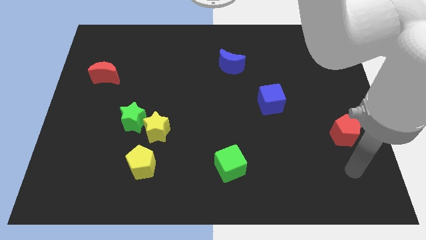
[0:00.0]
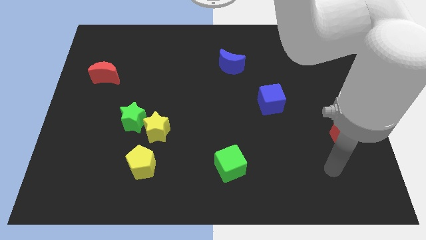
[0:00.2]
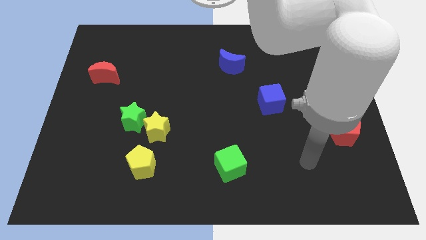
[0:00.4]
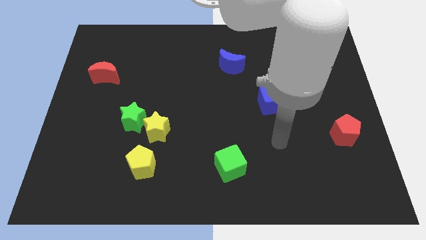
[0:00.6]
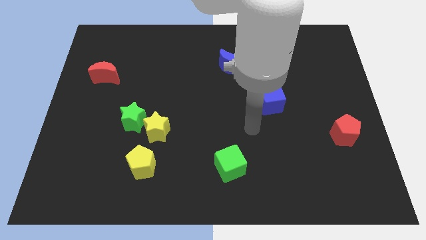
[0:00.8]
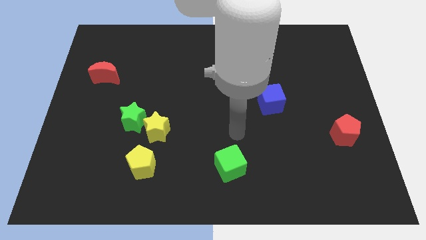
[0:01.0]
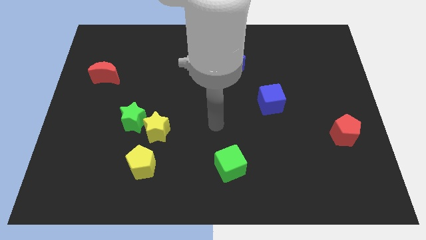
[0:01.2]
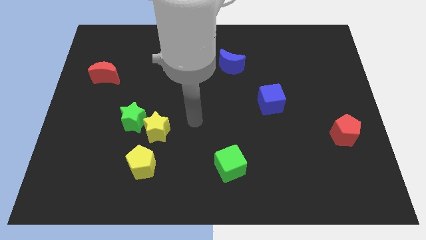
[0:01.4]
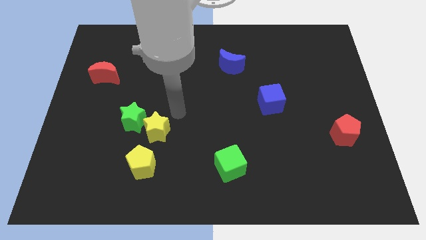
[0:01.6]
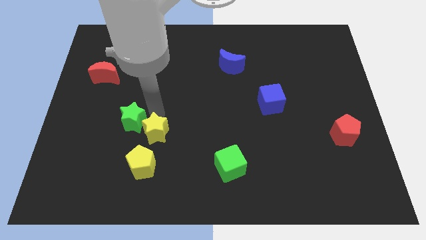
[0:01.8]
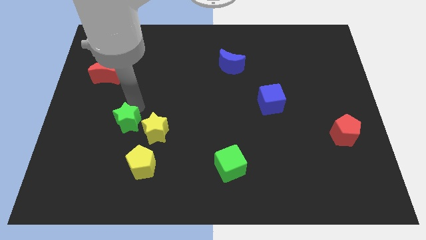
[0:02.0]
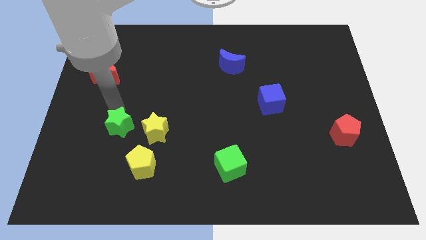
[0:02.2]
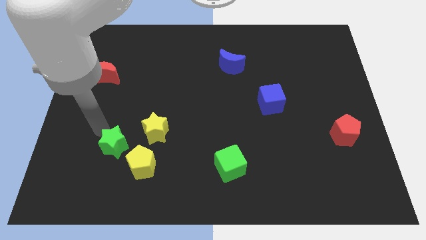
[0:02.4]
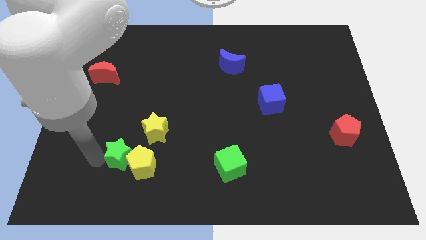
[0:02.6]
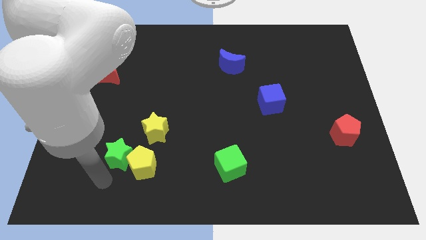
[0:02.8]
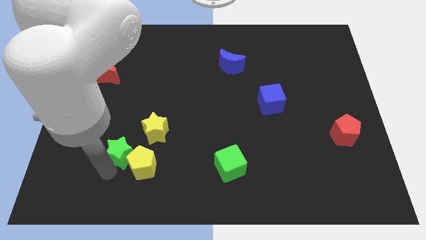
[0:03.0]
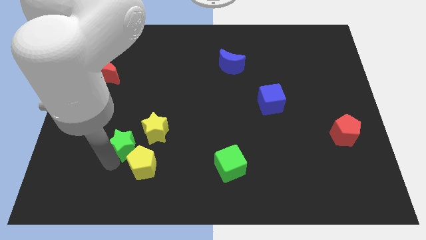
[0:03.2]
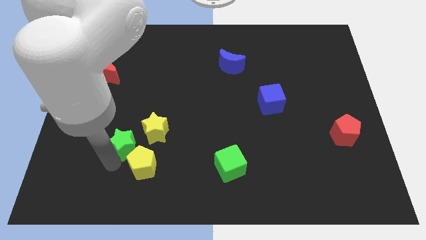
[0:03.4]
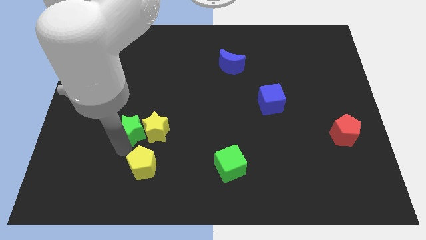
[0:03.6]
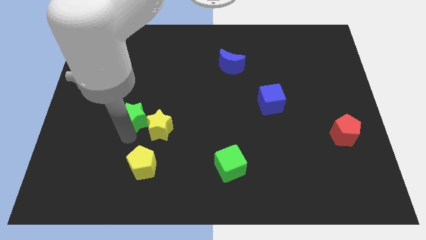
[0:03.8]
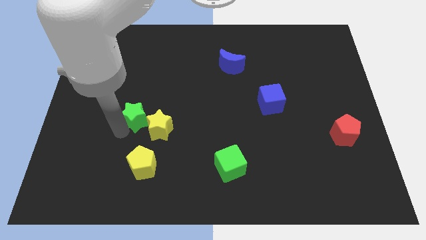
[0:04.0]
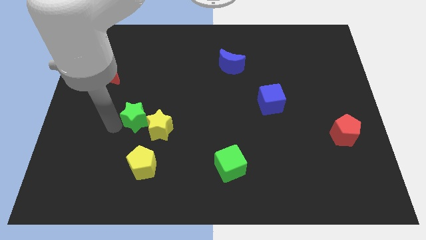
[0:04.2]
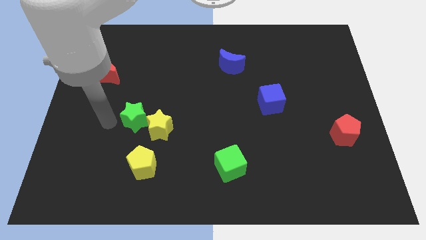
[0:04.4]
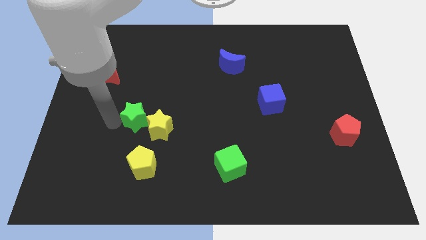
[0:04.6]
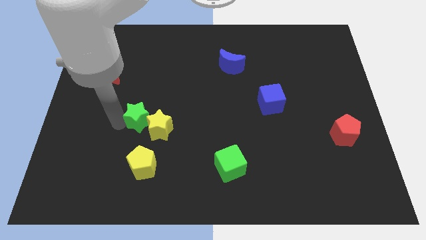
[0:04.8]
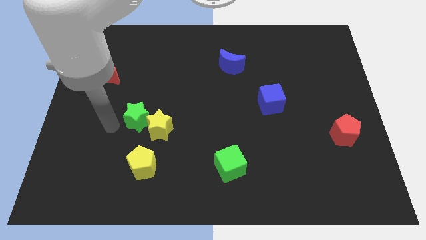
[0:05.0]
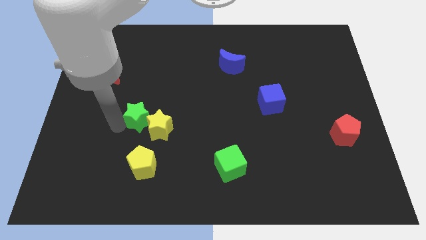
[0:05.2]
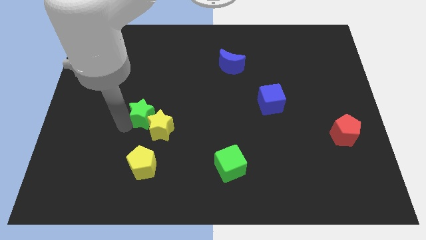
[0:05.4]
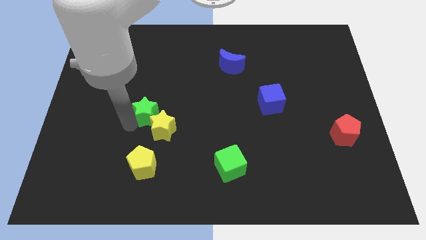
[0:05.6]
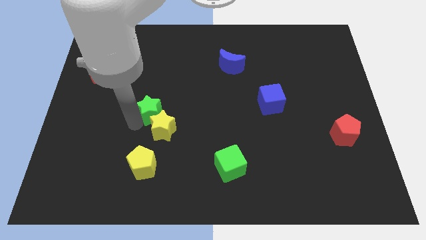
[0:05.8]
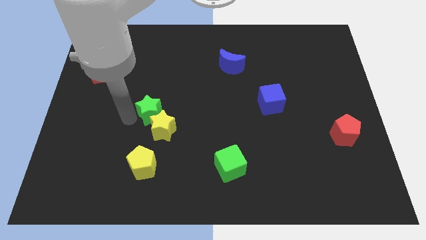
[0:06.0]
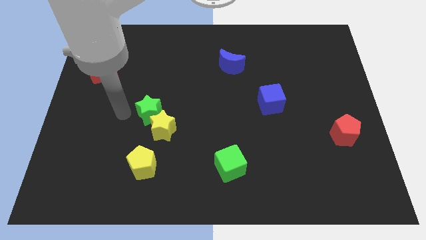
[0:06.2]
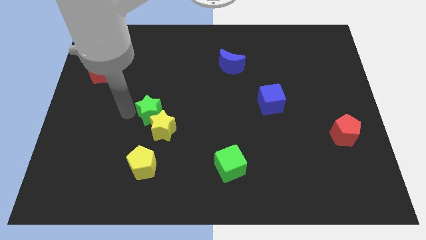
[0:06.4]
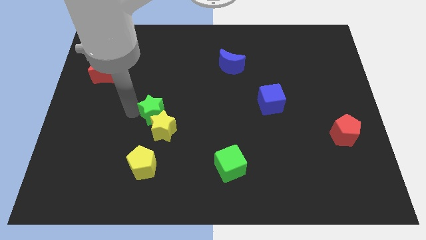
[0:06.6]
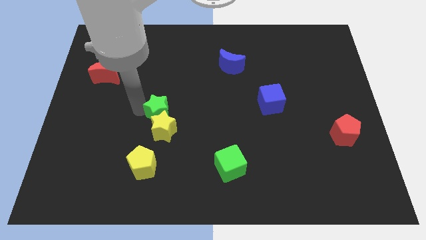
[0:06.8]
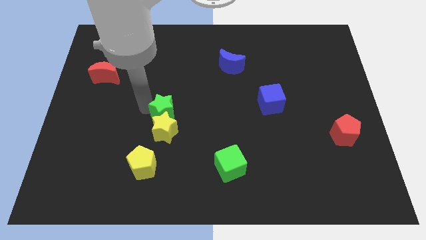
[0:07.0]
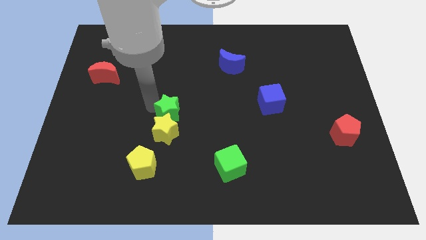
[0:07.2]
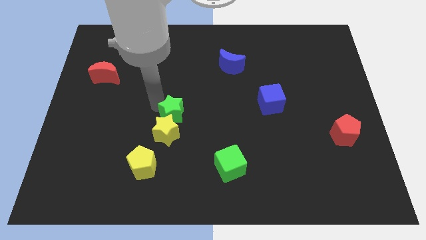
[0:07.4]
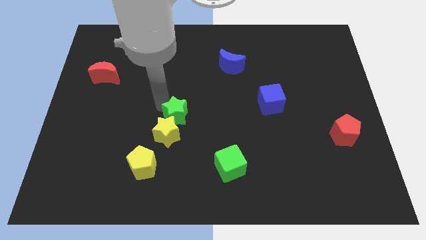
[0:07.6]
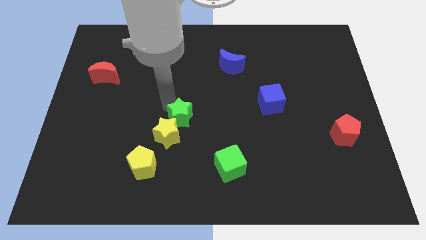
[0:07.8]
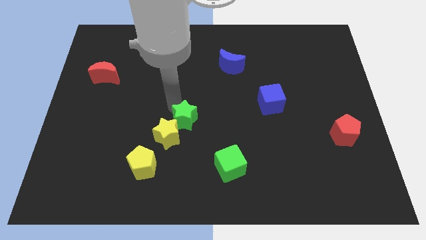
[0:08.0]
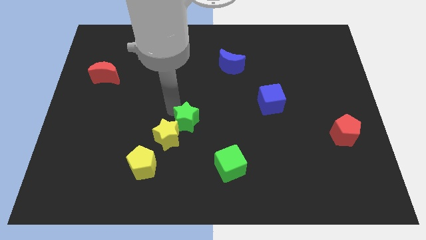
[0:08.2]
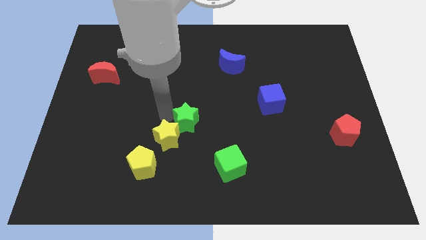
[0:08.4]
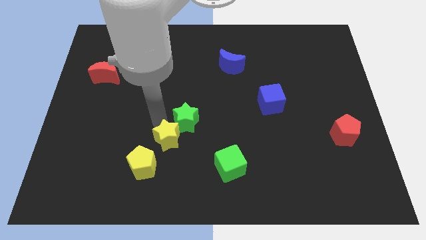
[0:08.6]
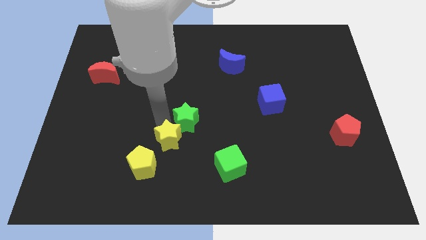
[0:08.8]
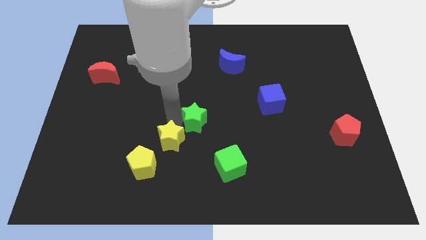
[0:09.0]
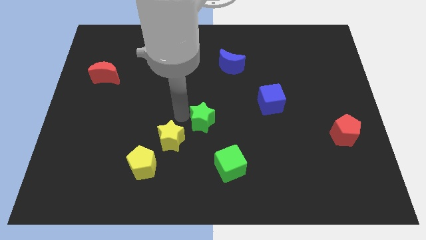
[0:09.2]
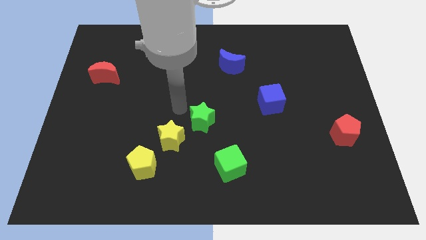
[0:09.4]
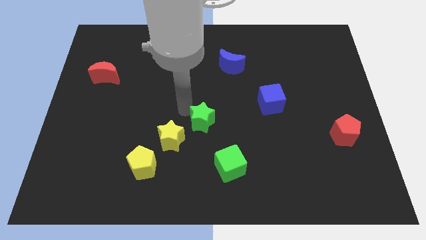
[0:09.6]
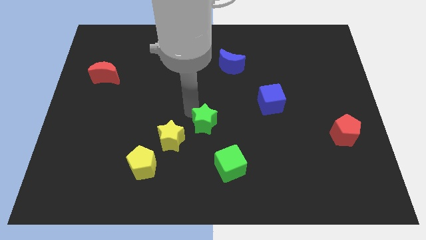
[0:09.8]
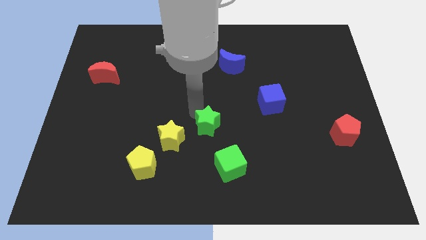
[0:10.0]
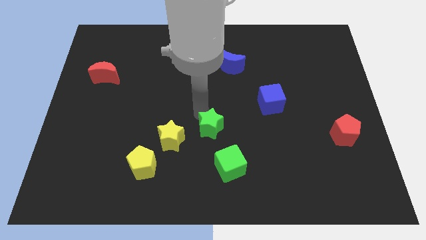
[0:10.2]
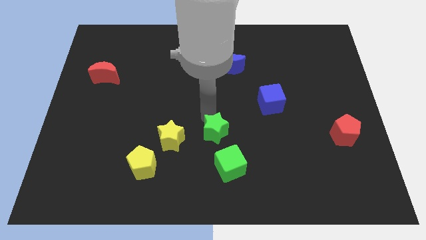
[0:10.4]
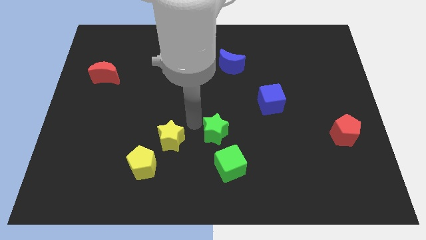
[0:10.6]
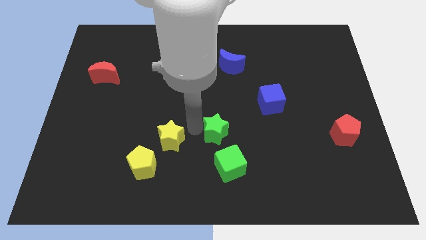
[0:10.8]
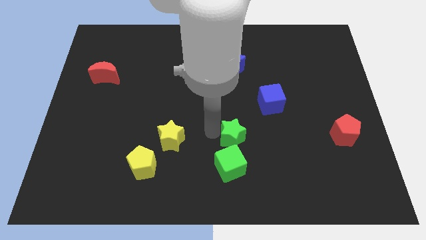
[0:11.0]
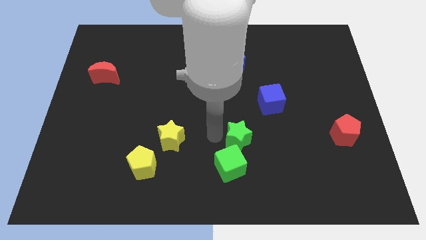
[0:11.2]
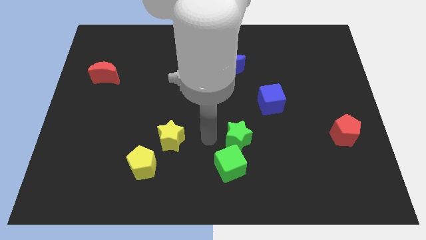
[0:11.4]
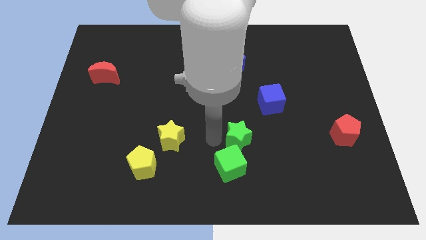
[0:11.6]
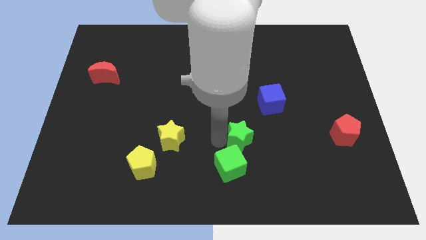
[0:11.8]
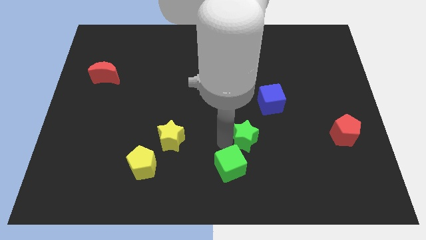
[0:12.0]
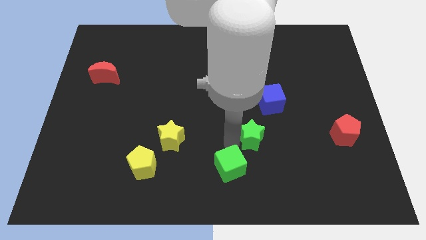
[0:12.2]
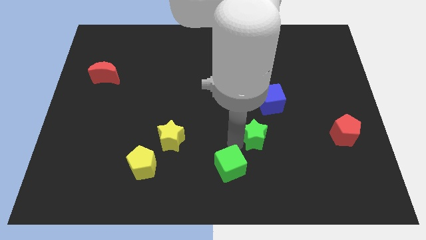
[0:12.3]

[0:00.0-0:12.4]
move the green star to the bottom of the blue cube

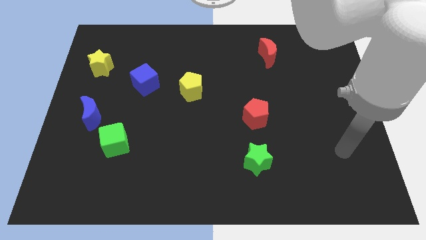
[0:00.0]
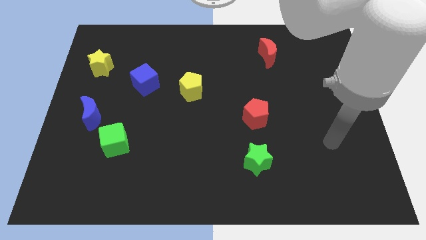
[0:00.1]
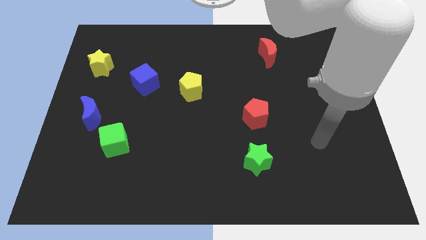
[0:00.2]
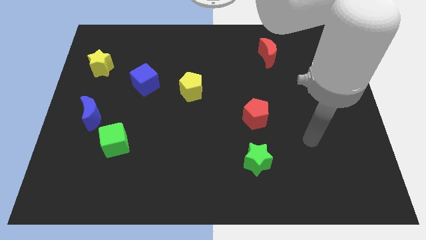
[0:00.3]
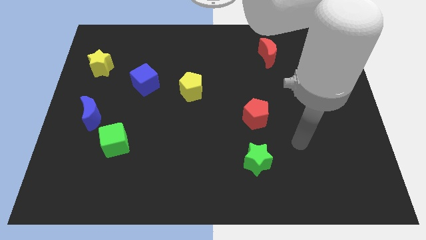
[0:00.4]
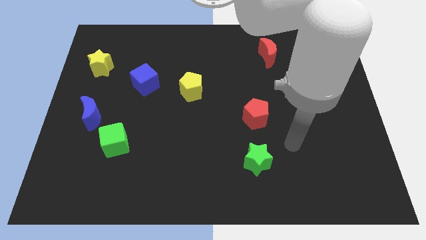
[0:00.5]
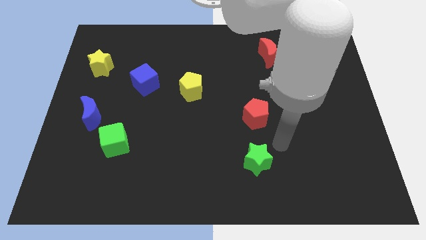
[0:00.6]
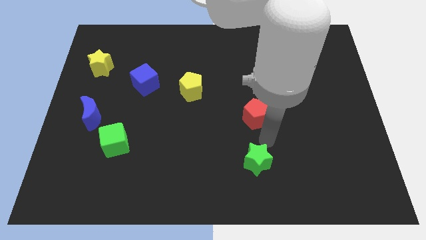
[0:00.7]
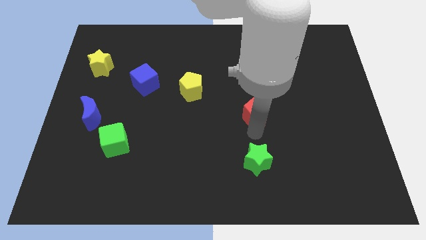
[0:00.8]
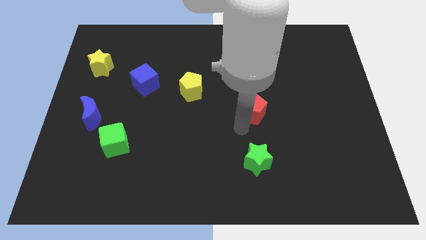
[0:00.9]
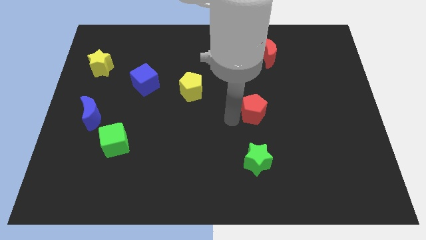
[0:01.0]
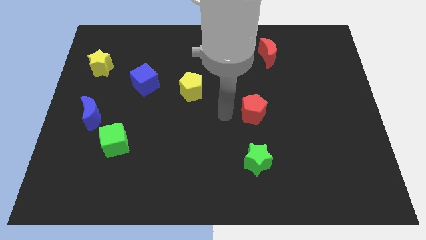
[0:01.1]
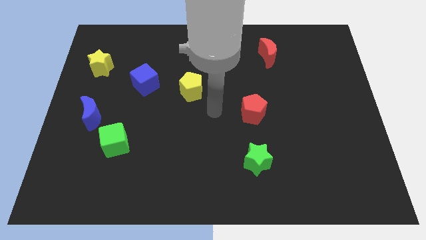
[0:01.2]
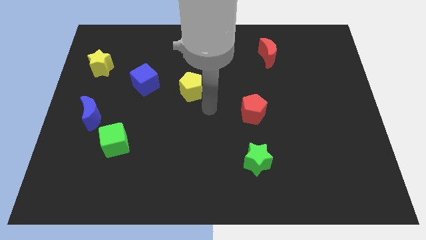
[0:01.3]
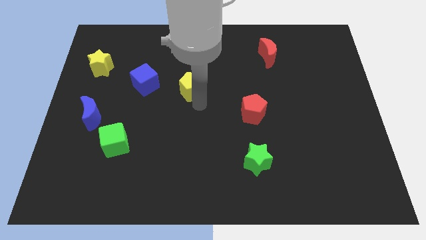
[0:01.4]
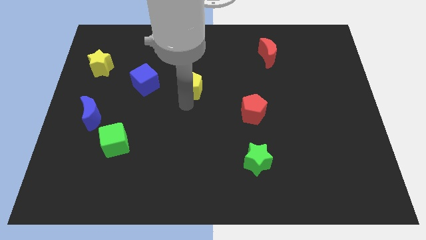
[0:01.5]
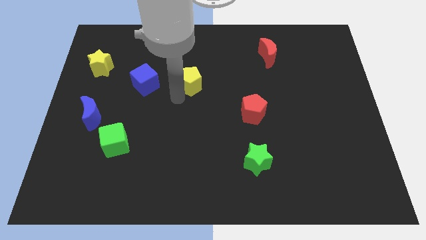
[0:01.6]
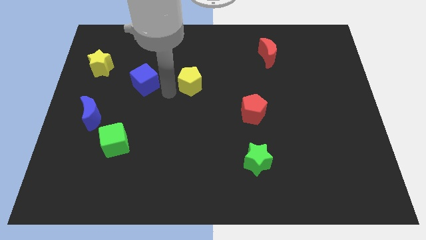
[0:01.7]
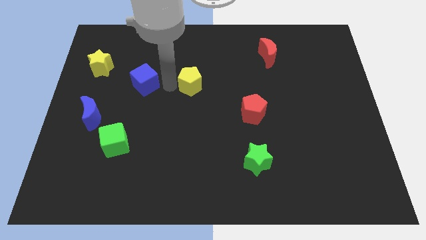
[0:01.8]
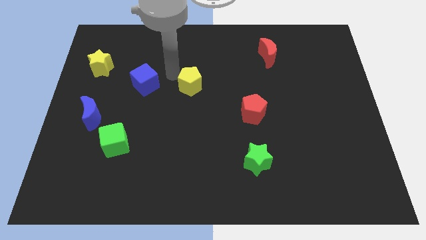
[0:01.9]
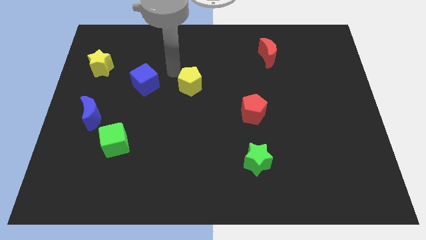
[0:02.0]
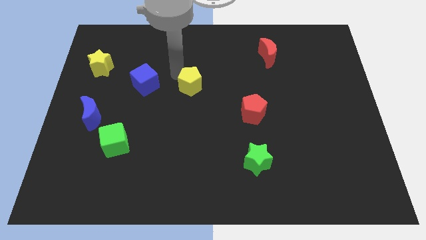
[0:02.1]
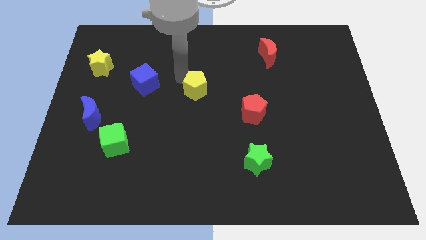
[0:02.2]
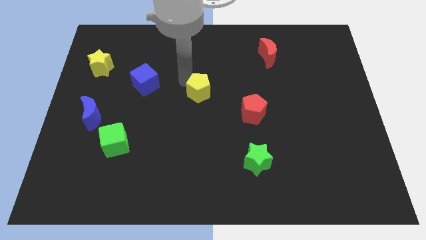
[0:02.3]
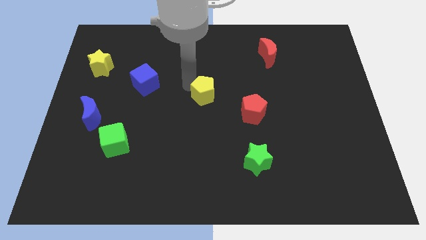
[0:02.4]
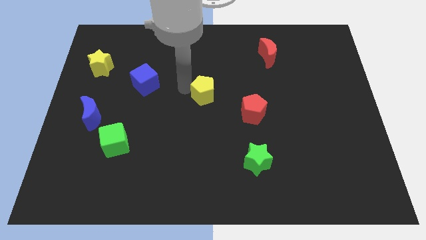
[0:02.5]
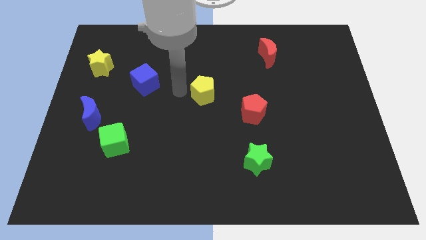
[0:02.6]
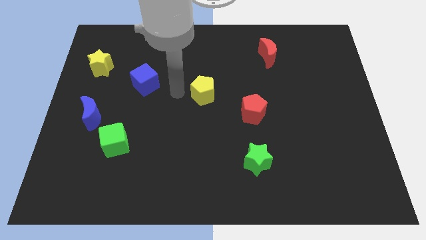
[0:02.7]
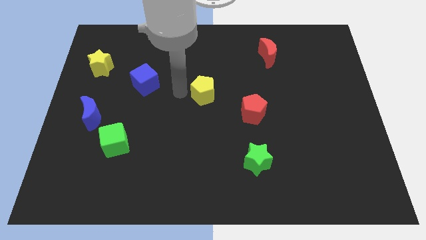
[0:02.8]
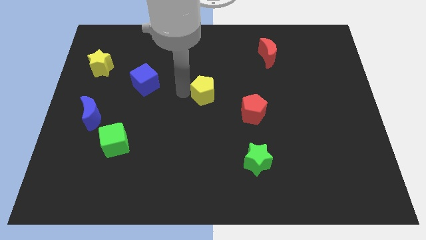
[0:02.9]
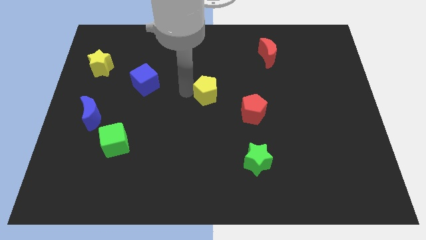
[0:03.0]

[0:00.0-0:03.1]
put the yellow pentagon to the top left of the red pentagon
